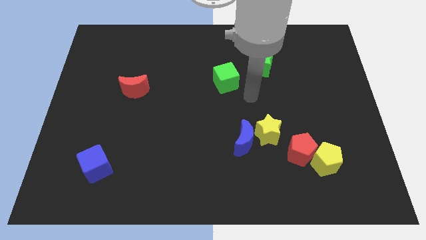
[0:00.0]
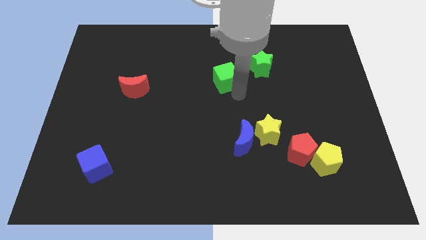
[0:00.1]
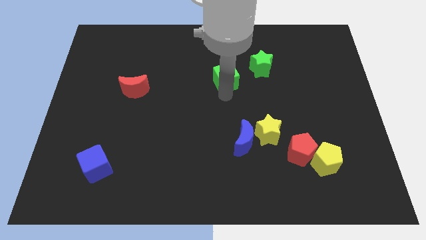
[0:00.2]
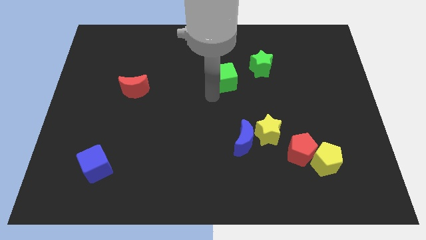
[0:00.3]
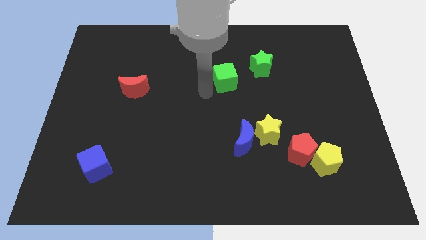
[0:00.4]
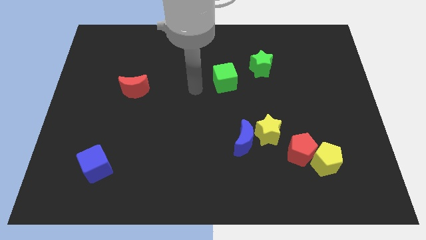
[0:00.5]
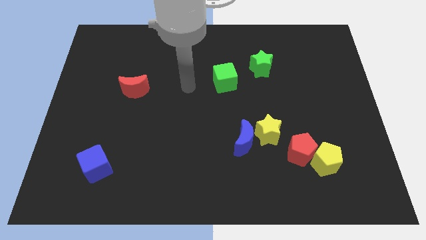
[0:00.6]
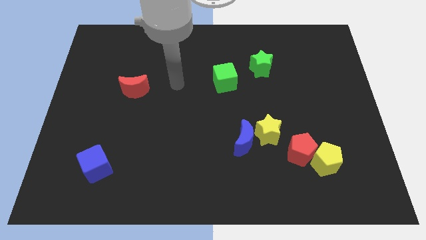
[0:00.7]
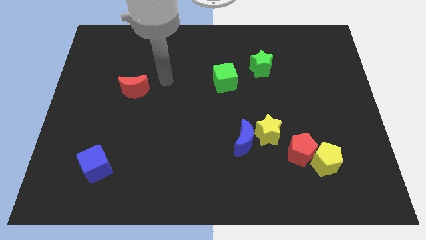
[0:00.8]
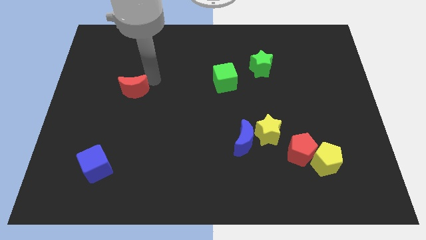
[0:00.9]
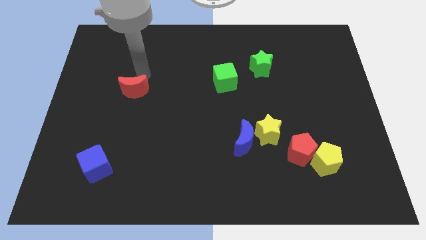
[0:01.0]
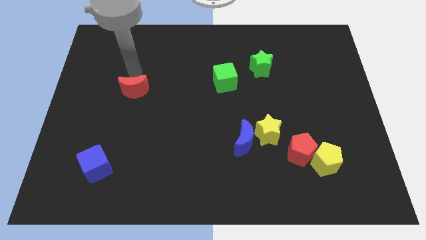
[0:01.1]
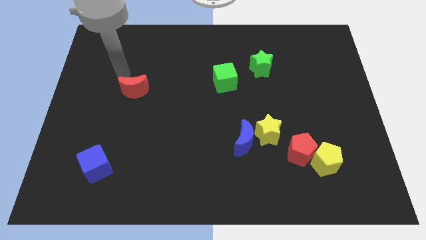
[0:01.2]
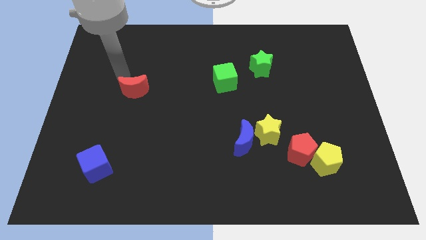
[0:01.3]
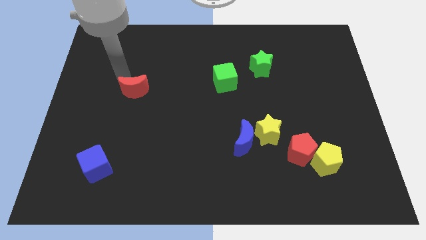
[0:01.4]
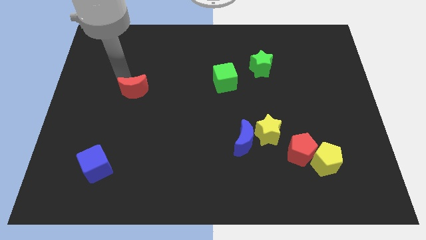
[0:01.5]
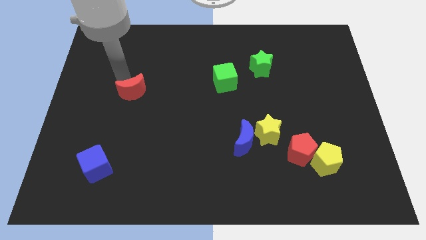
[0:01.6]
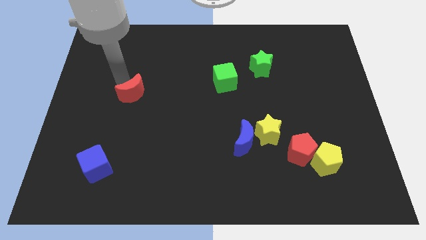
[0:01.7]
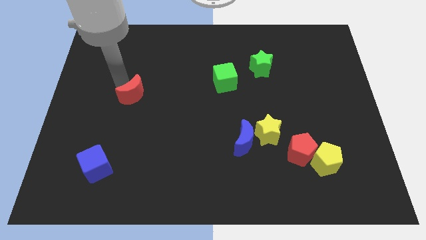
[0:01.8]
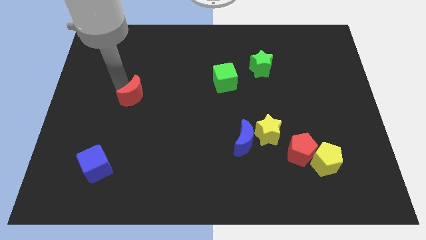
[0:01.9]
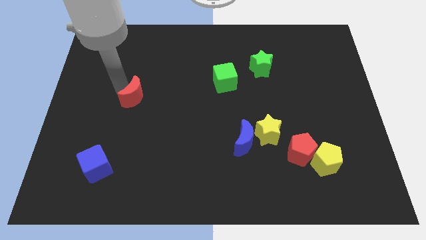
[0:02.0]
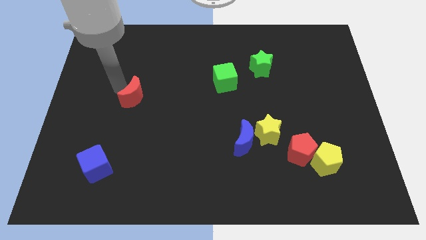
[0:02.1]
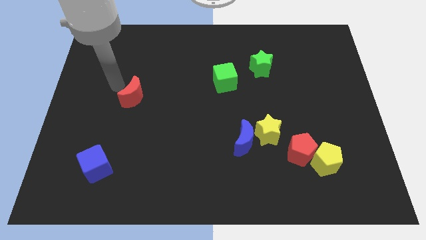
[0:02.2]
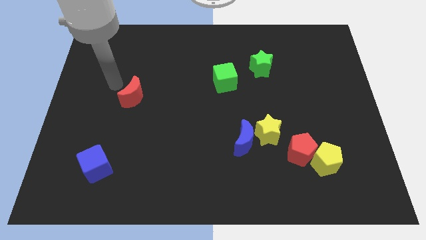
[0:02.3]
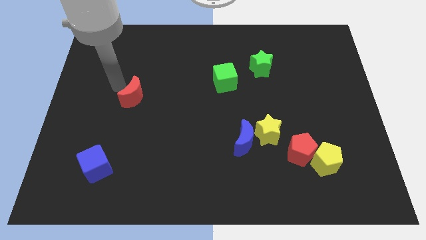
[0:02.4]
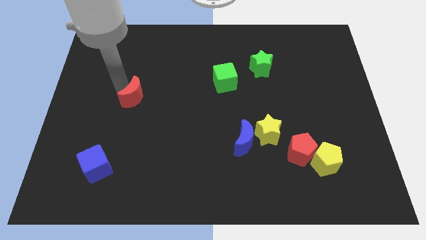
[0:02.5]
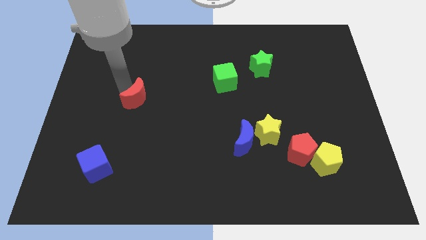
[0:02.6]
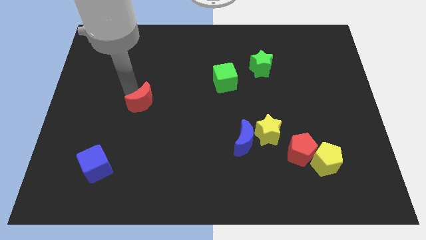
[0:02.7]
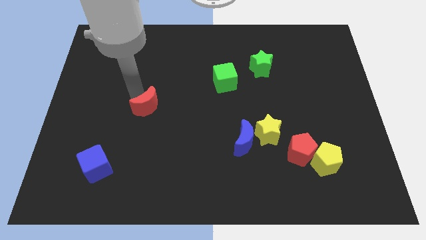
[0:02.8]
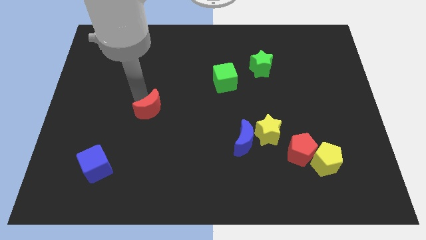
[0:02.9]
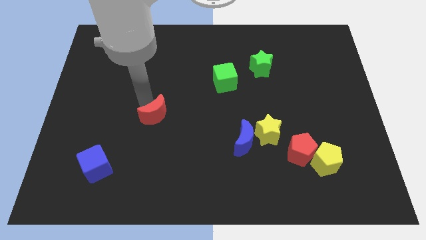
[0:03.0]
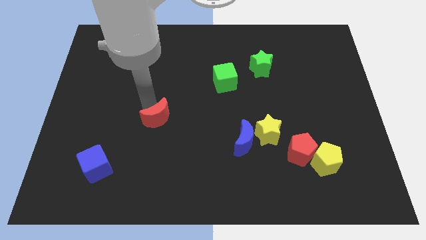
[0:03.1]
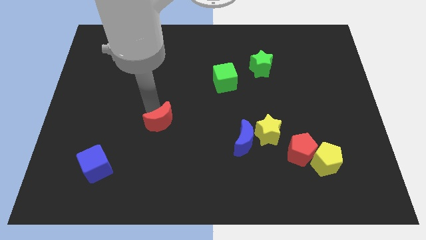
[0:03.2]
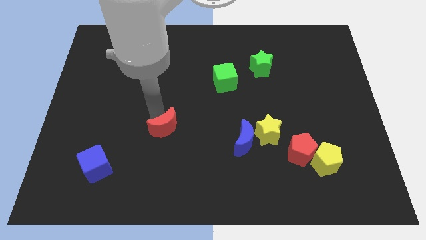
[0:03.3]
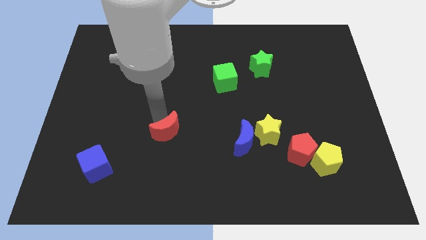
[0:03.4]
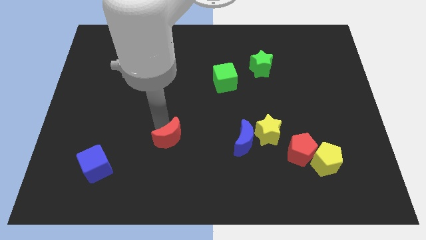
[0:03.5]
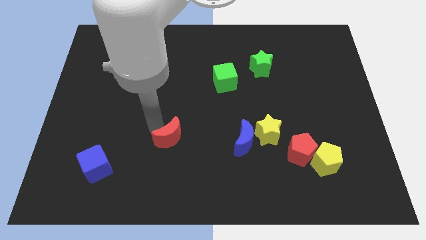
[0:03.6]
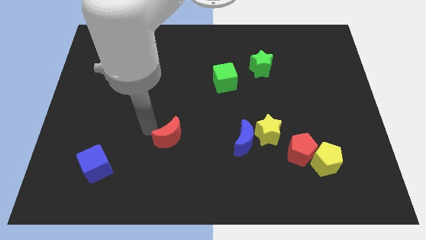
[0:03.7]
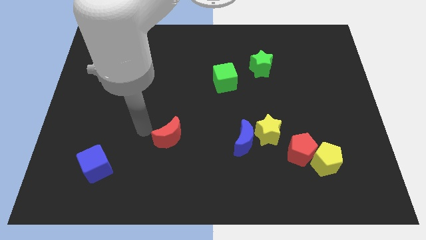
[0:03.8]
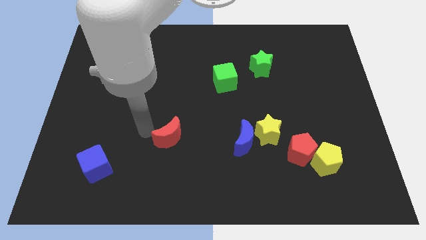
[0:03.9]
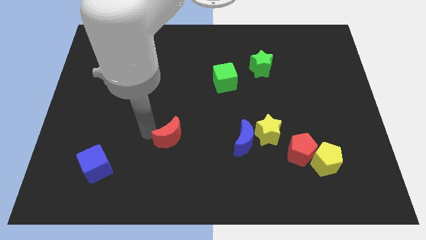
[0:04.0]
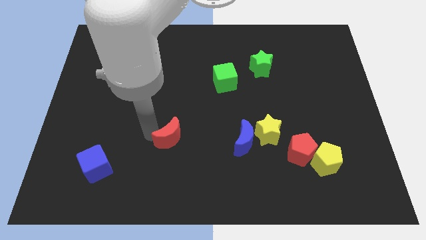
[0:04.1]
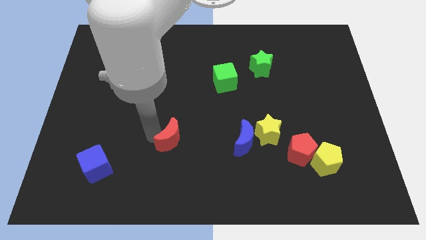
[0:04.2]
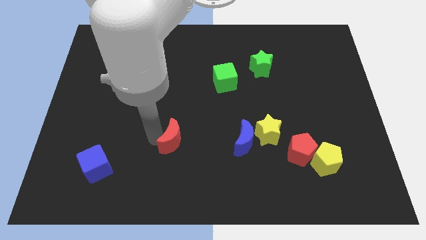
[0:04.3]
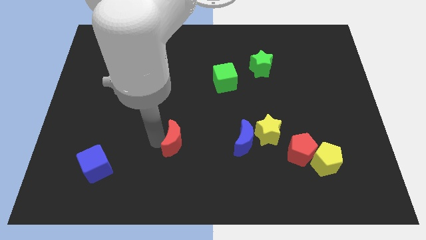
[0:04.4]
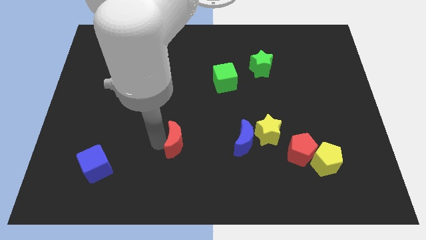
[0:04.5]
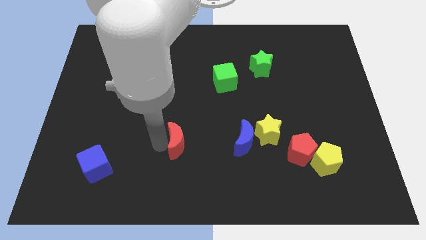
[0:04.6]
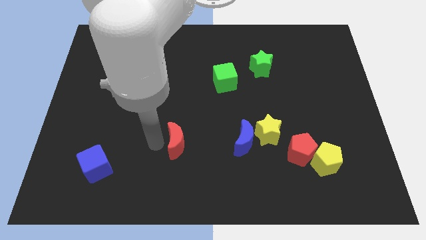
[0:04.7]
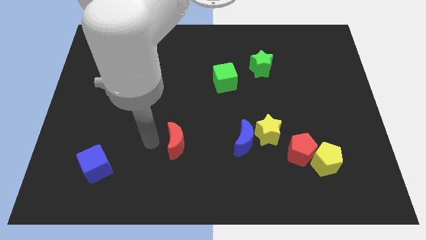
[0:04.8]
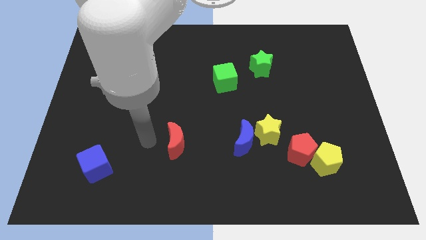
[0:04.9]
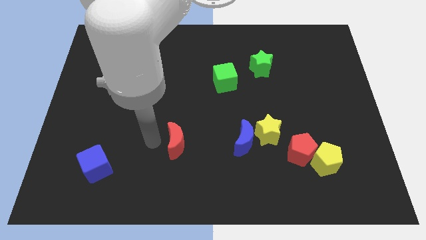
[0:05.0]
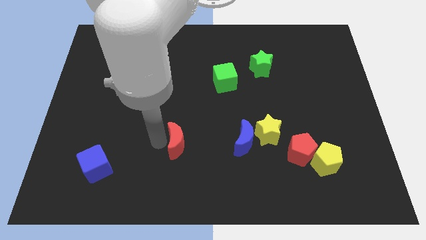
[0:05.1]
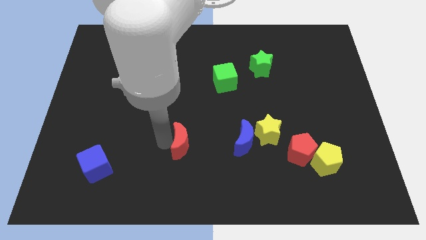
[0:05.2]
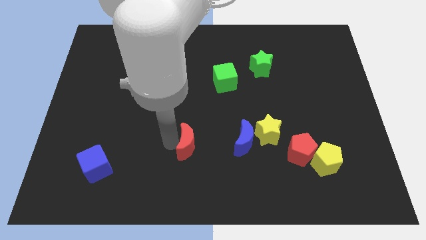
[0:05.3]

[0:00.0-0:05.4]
move the red moon down and then to the right

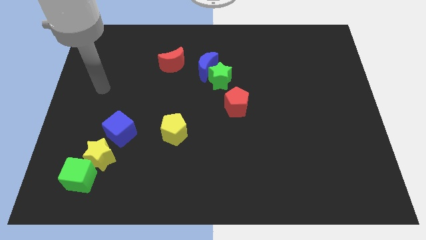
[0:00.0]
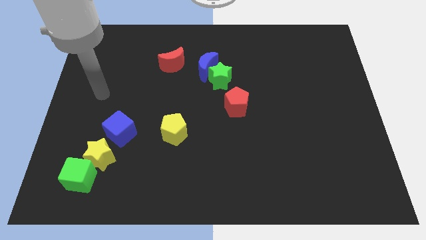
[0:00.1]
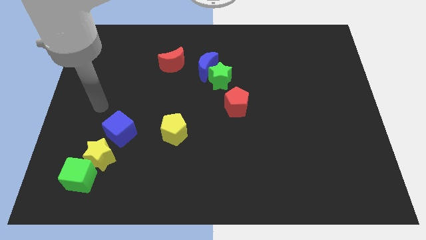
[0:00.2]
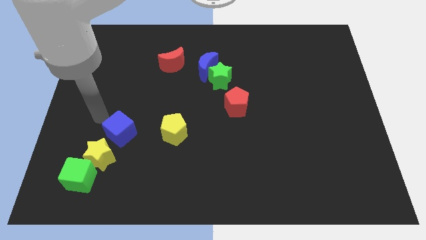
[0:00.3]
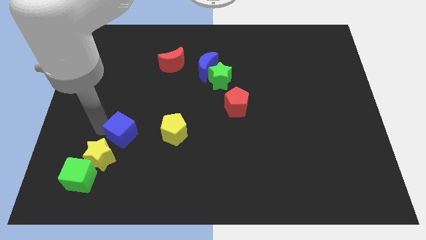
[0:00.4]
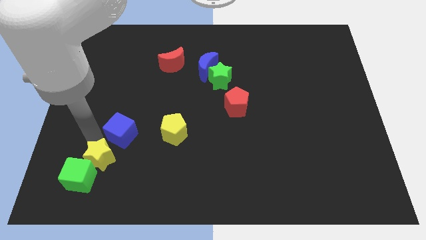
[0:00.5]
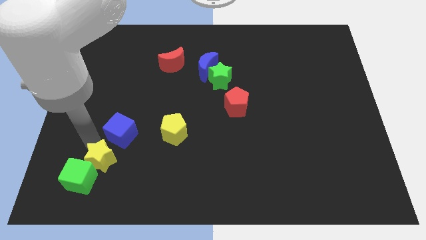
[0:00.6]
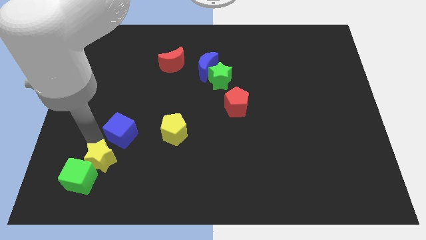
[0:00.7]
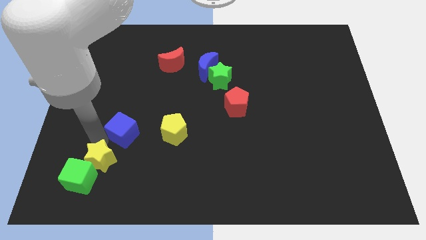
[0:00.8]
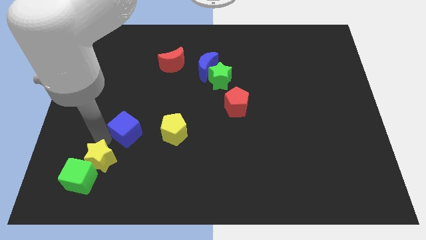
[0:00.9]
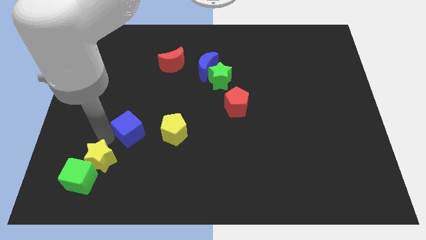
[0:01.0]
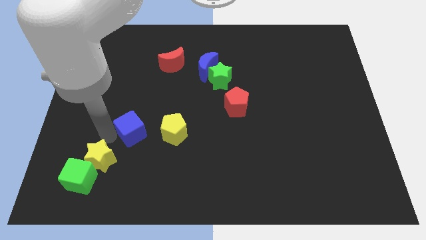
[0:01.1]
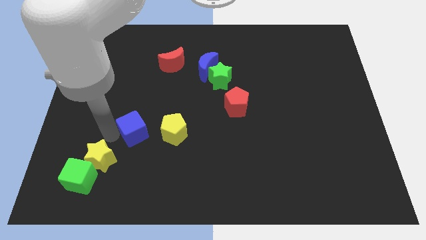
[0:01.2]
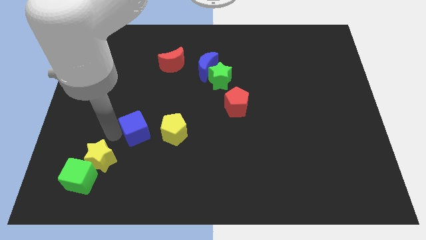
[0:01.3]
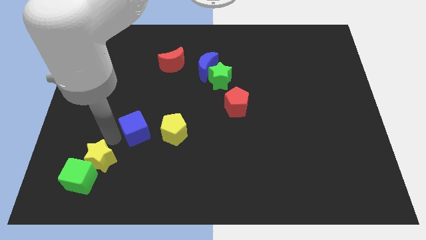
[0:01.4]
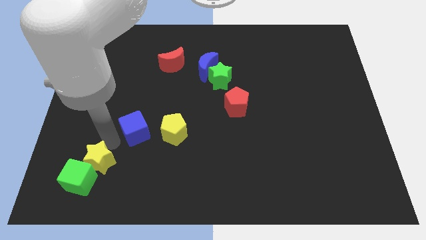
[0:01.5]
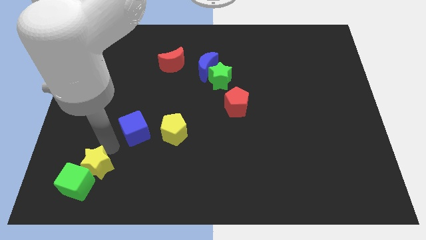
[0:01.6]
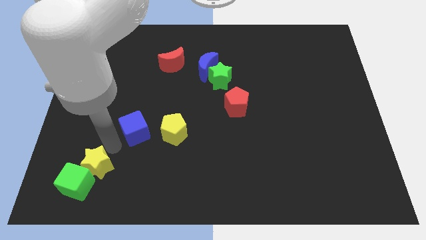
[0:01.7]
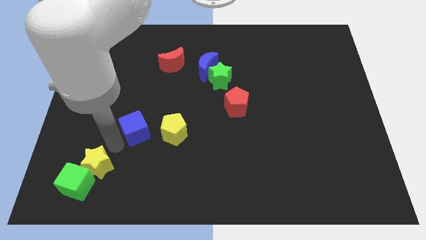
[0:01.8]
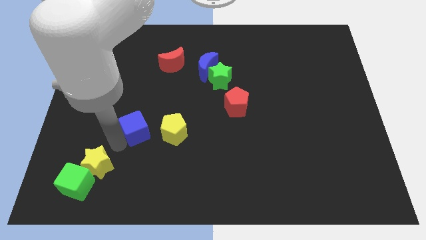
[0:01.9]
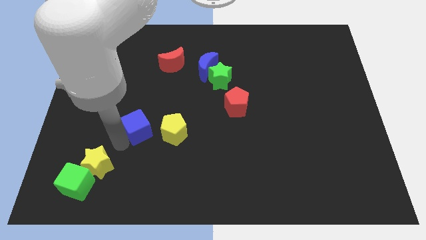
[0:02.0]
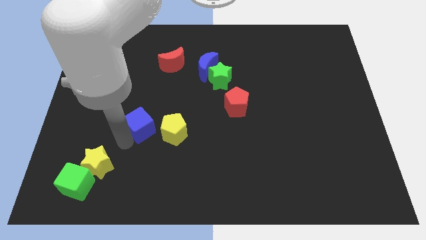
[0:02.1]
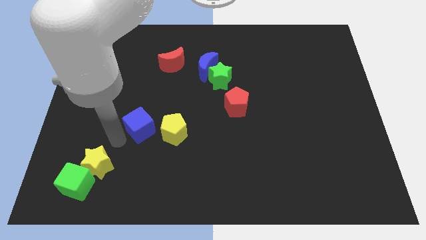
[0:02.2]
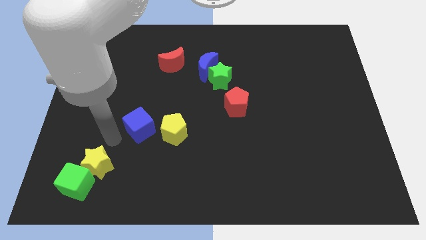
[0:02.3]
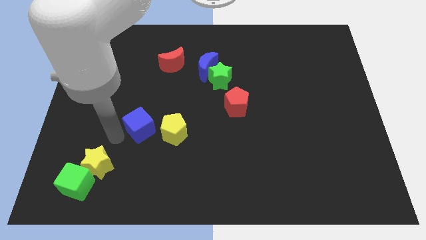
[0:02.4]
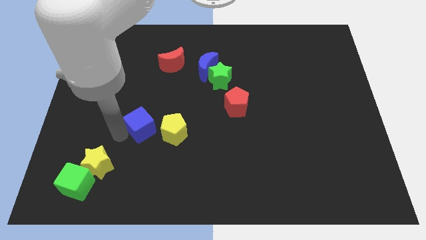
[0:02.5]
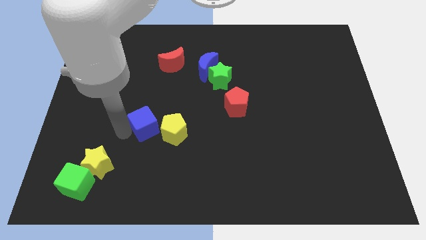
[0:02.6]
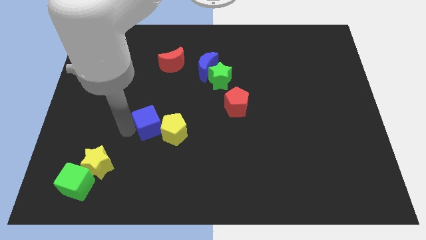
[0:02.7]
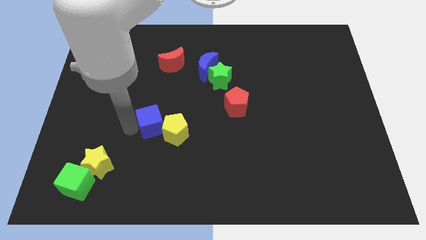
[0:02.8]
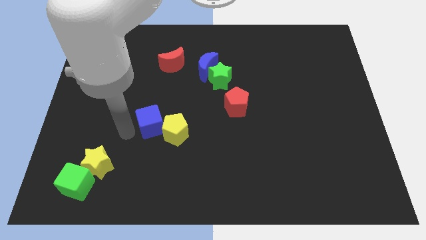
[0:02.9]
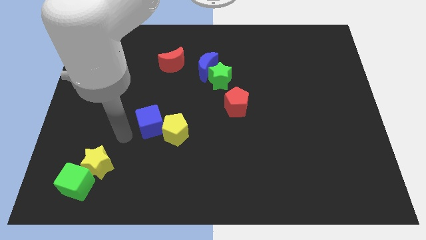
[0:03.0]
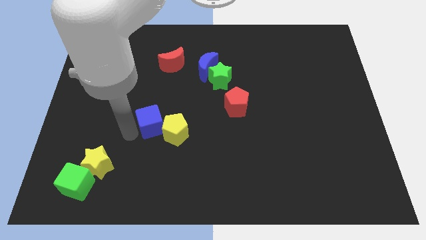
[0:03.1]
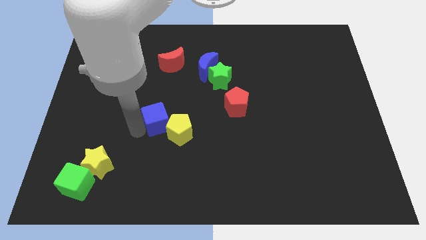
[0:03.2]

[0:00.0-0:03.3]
slightly push the blue cube to the right
